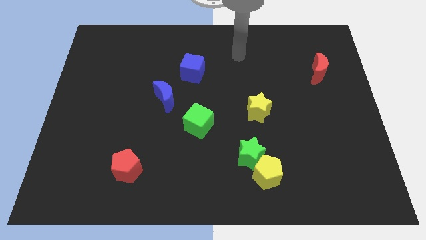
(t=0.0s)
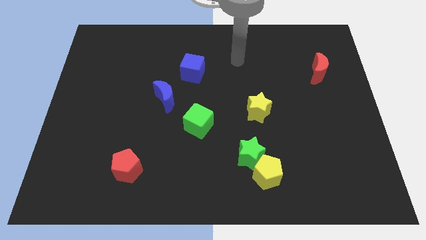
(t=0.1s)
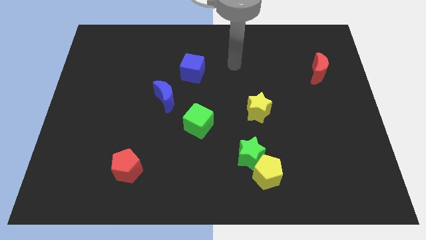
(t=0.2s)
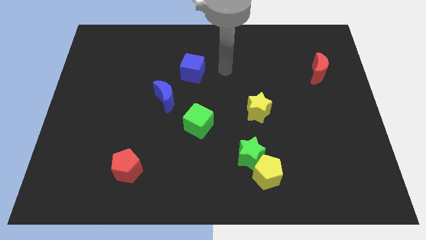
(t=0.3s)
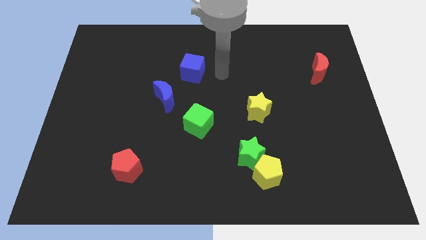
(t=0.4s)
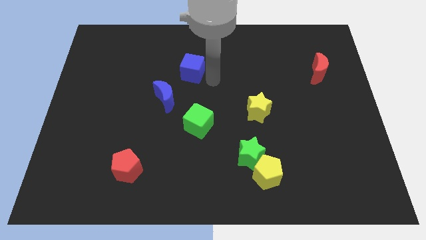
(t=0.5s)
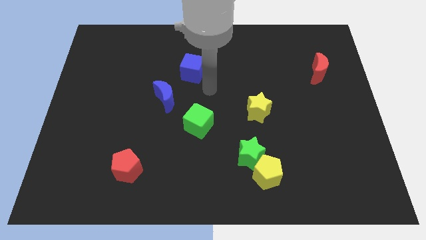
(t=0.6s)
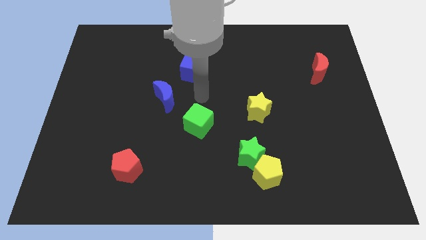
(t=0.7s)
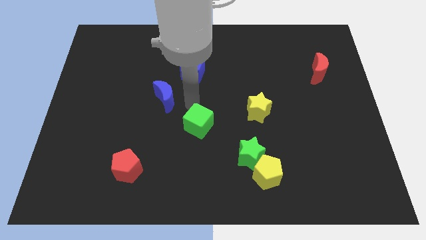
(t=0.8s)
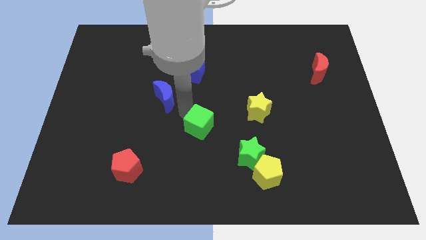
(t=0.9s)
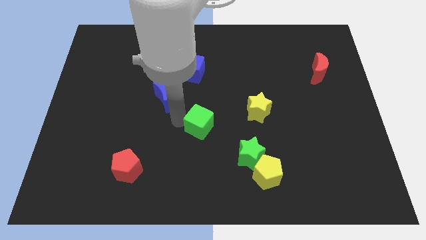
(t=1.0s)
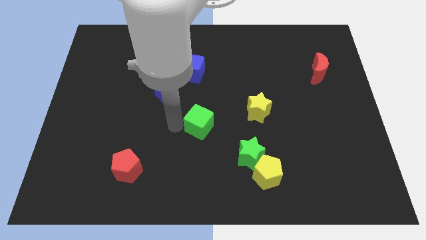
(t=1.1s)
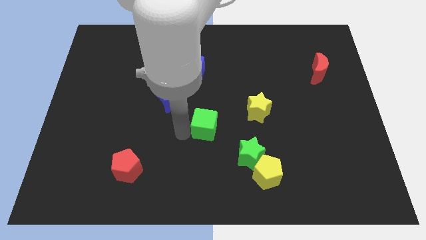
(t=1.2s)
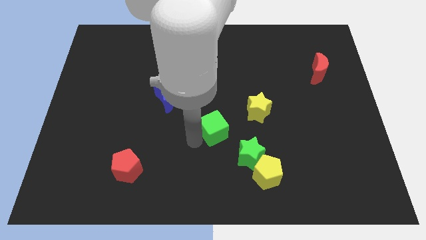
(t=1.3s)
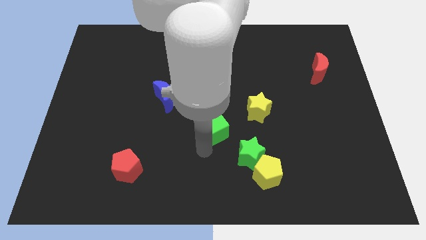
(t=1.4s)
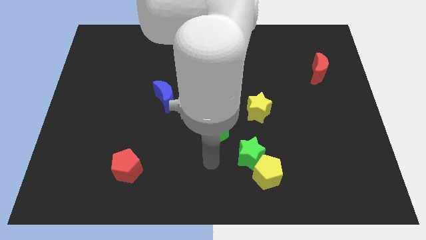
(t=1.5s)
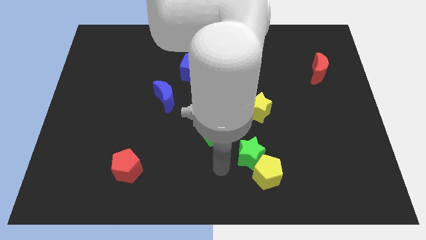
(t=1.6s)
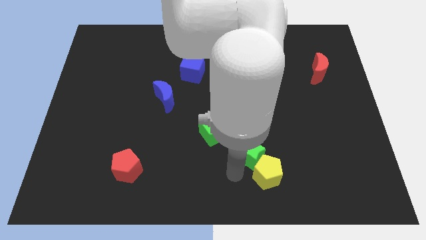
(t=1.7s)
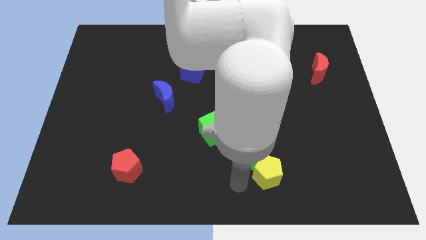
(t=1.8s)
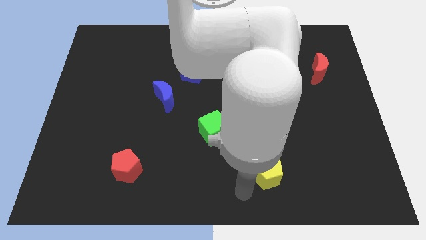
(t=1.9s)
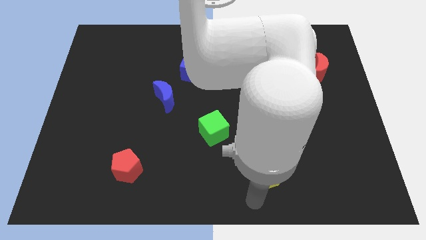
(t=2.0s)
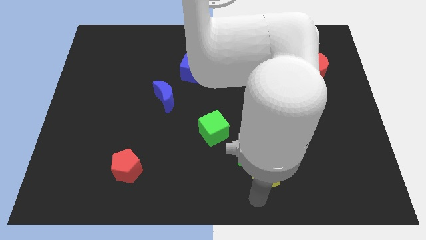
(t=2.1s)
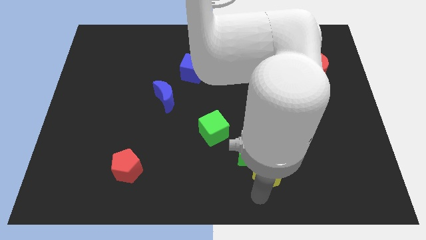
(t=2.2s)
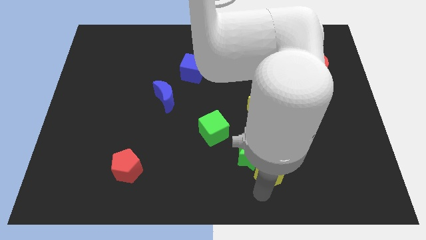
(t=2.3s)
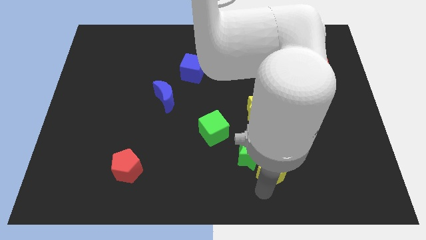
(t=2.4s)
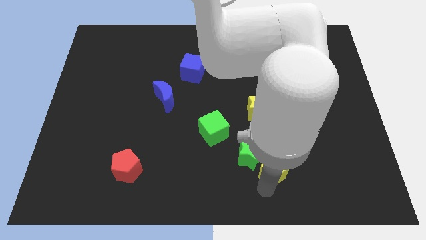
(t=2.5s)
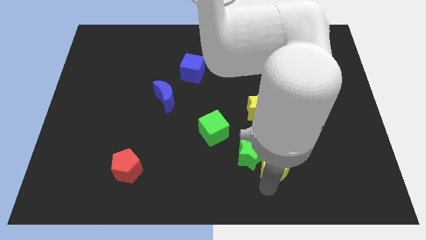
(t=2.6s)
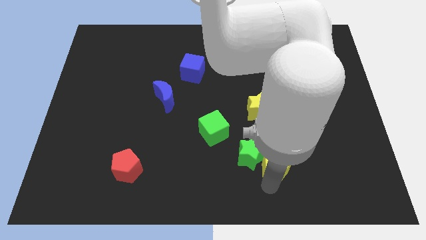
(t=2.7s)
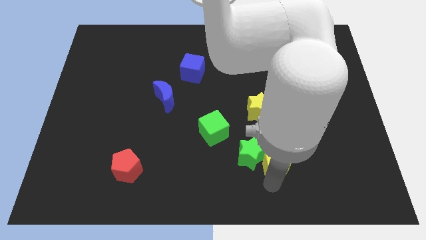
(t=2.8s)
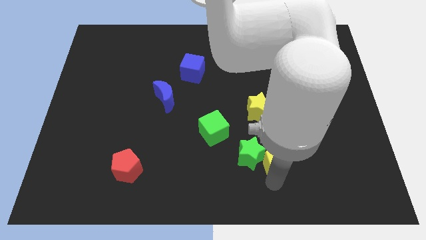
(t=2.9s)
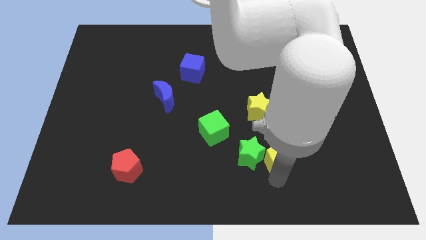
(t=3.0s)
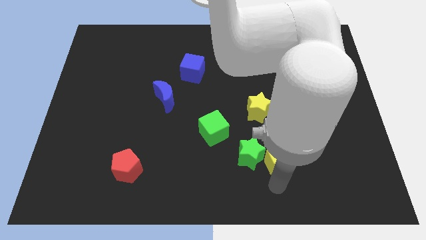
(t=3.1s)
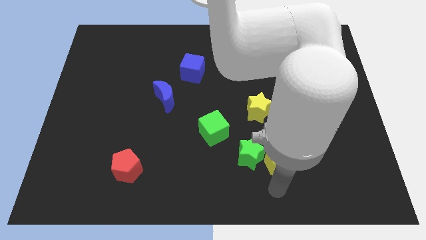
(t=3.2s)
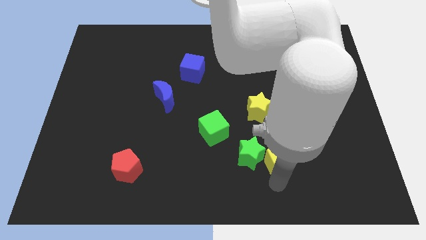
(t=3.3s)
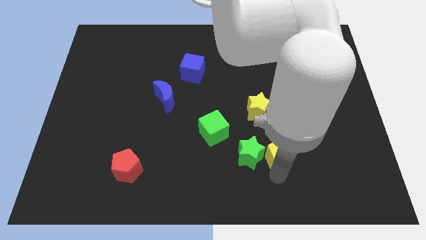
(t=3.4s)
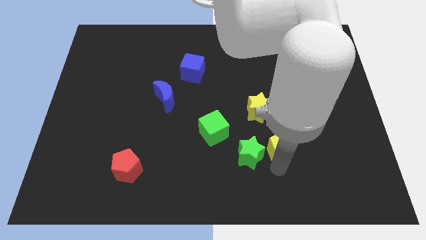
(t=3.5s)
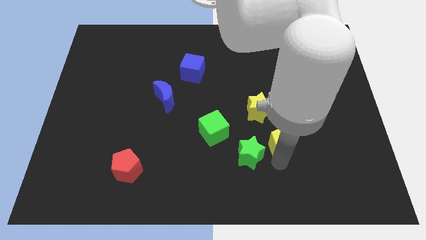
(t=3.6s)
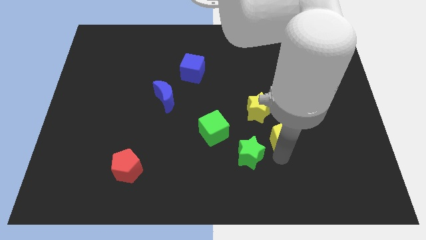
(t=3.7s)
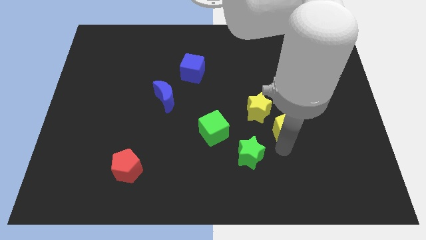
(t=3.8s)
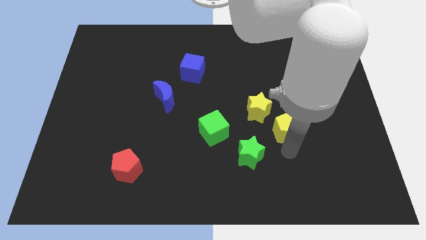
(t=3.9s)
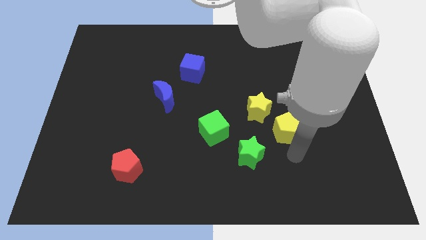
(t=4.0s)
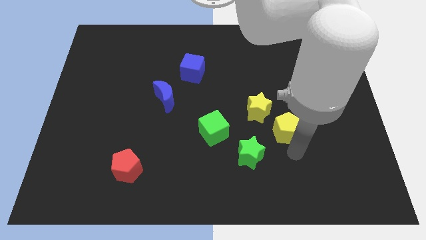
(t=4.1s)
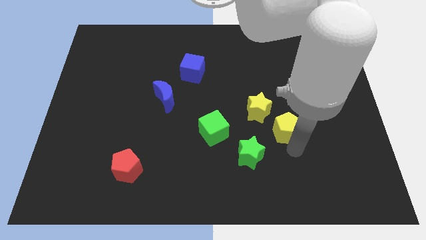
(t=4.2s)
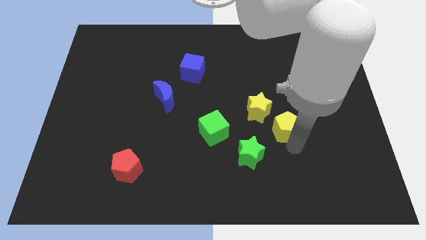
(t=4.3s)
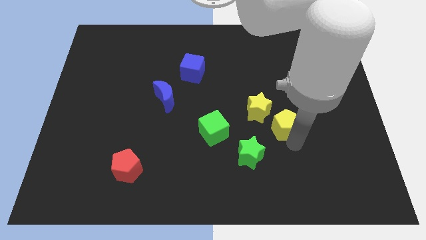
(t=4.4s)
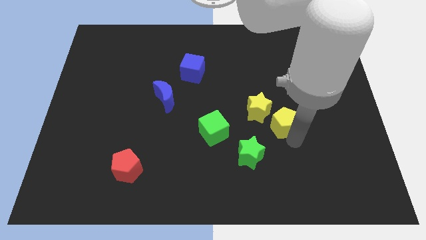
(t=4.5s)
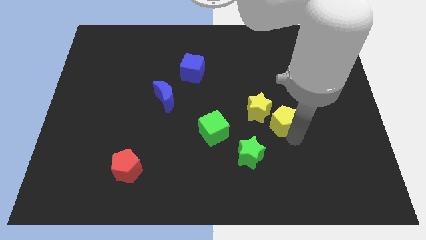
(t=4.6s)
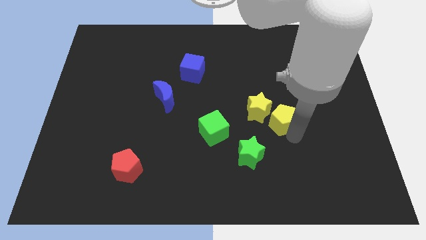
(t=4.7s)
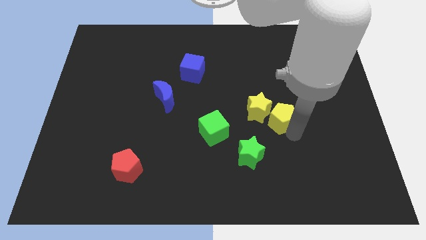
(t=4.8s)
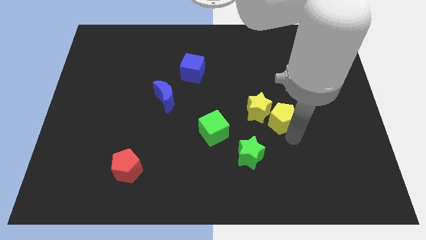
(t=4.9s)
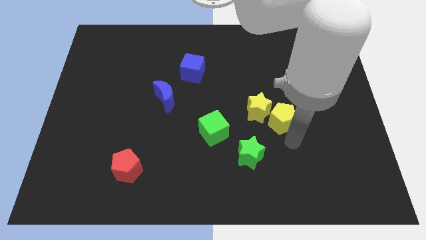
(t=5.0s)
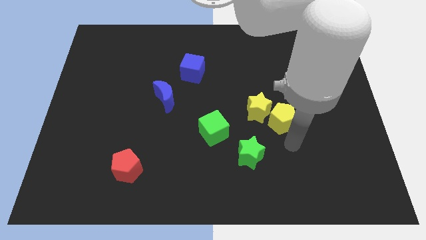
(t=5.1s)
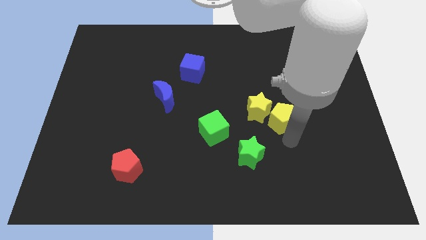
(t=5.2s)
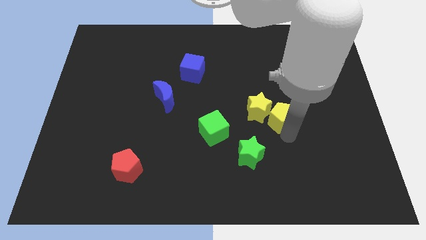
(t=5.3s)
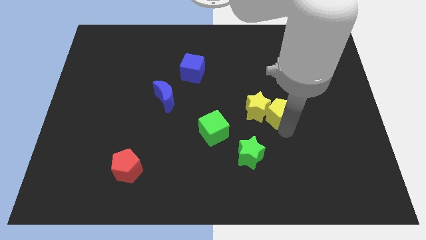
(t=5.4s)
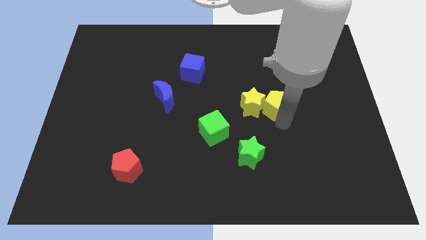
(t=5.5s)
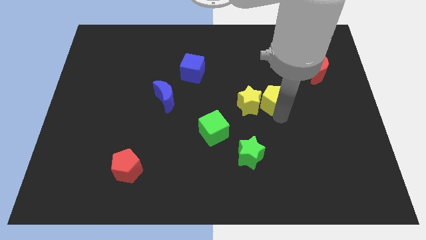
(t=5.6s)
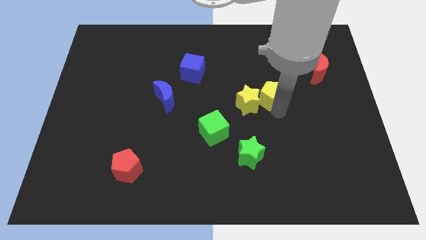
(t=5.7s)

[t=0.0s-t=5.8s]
push the yellow pentagon up

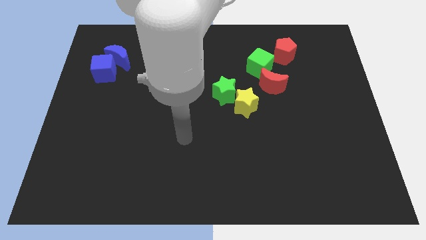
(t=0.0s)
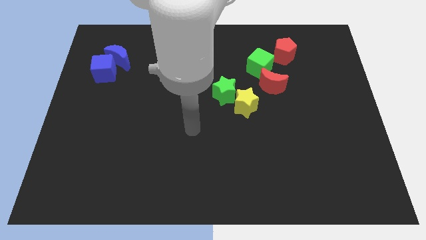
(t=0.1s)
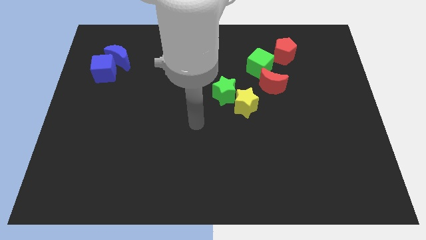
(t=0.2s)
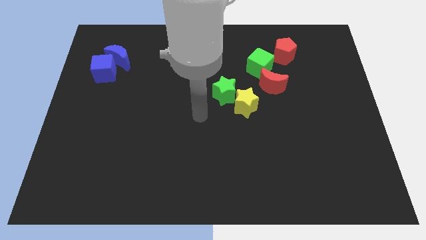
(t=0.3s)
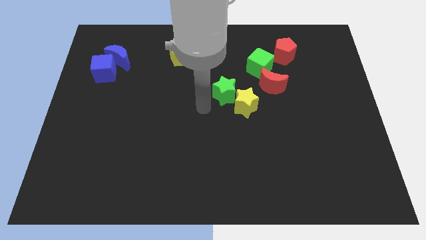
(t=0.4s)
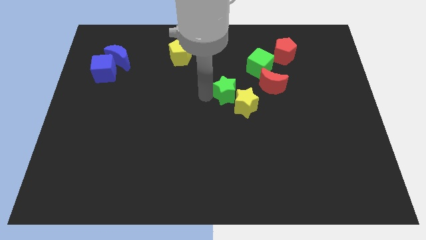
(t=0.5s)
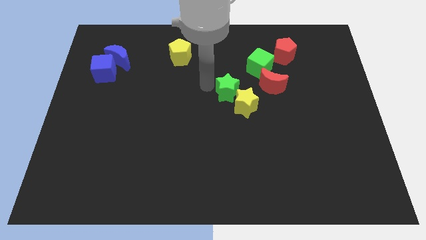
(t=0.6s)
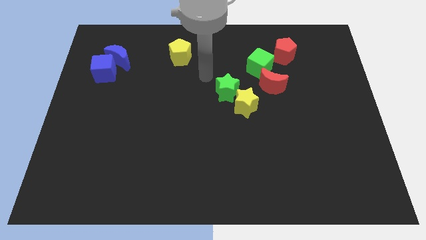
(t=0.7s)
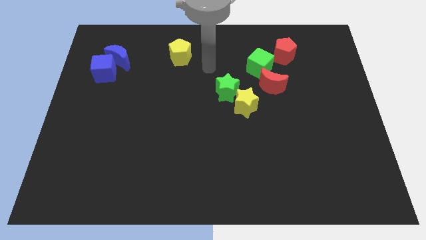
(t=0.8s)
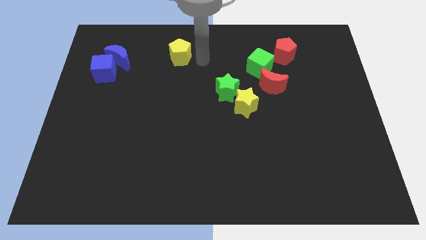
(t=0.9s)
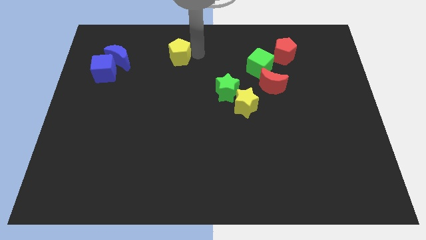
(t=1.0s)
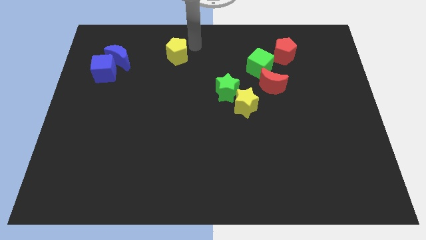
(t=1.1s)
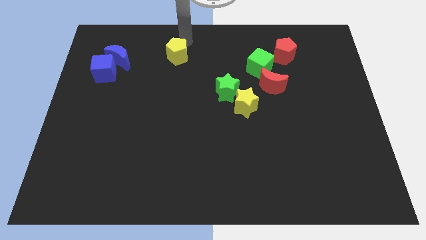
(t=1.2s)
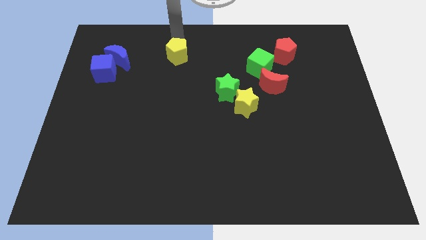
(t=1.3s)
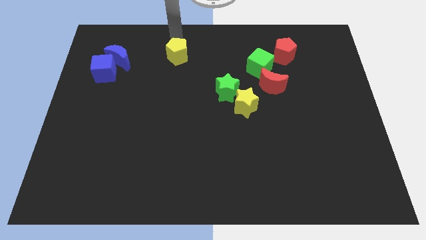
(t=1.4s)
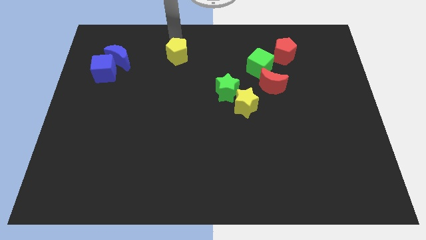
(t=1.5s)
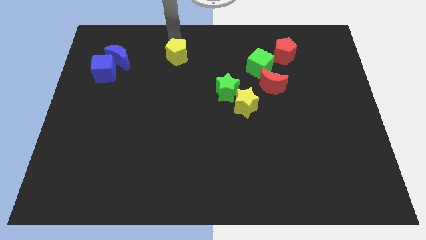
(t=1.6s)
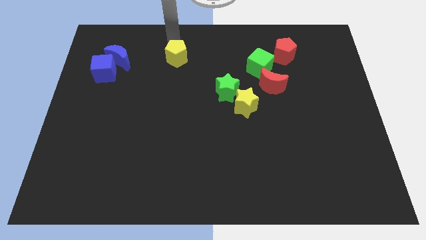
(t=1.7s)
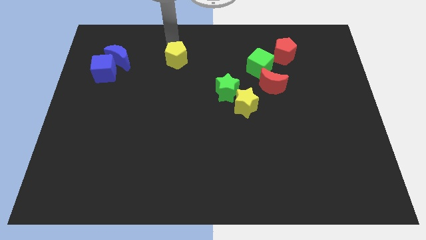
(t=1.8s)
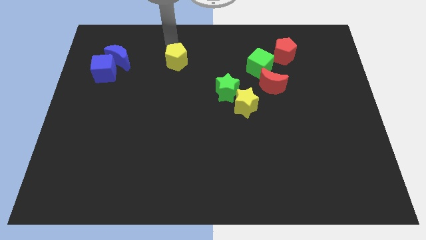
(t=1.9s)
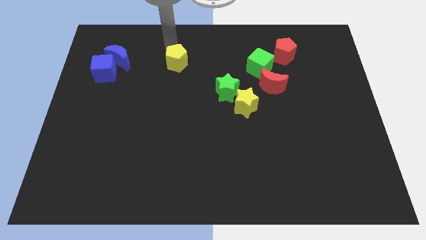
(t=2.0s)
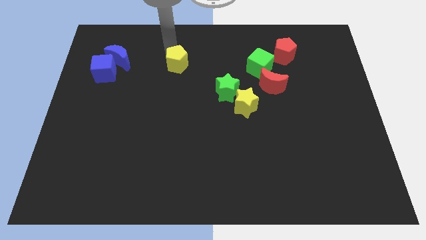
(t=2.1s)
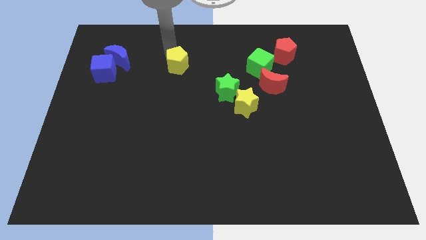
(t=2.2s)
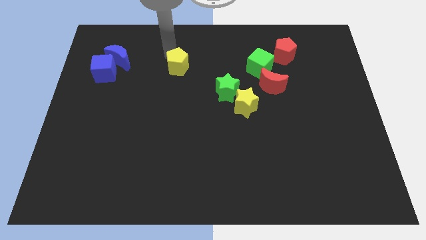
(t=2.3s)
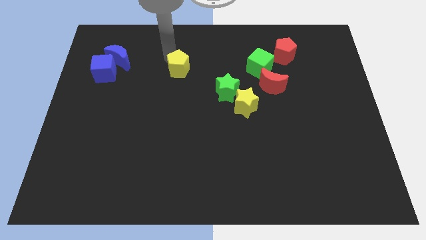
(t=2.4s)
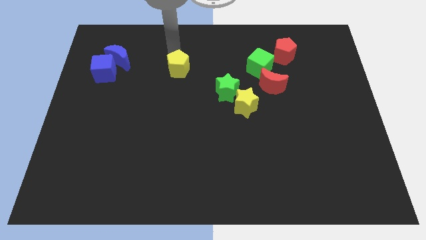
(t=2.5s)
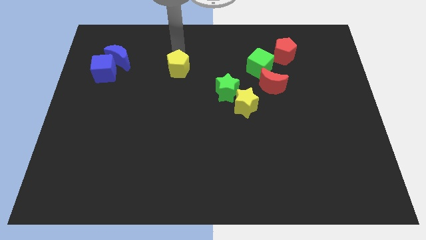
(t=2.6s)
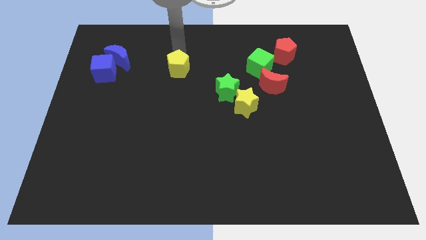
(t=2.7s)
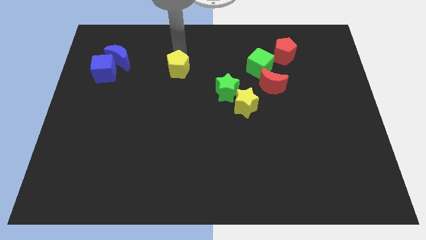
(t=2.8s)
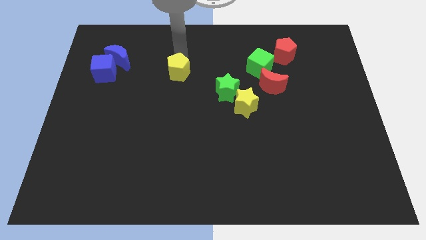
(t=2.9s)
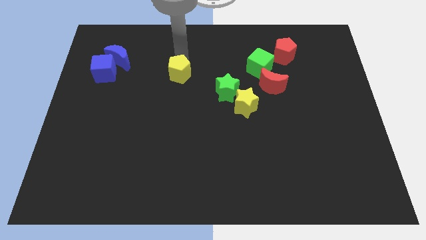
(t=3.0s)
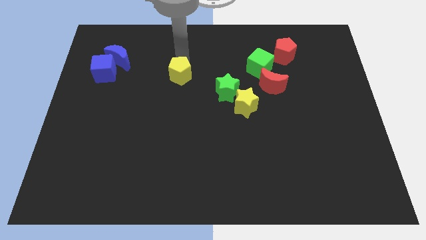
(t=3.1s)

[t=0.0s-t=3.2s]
push the yellow pentagon slightly downwards
